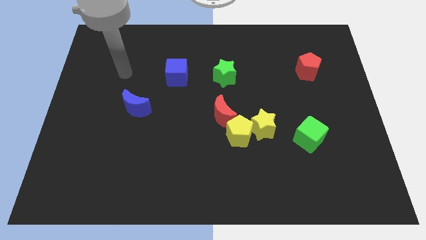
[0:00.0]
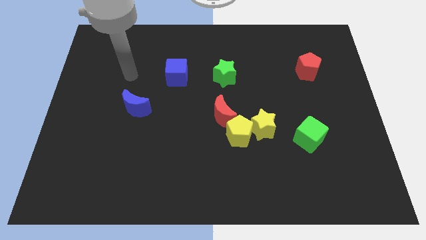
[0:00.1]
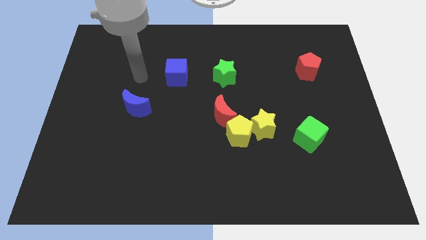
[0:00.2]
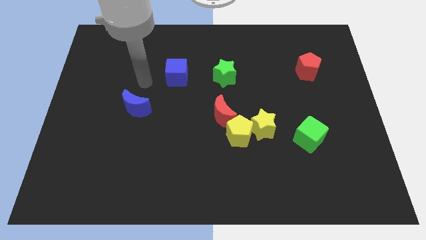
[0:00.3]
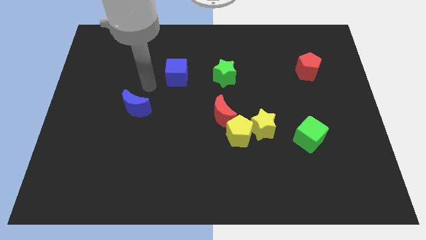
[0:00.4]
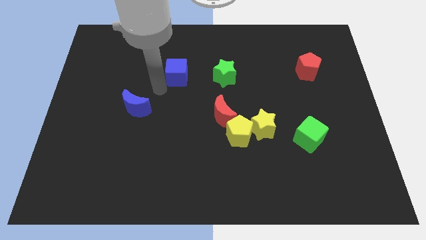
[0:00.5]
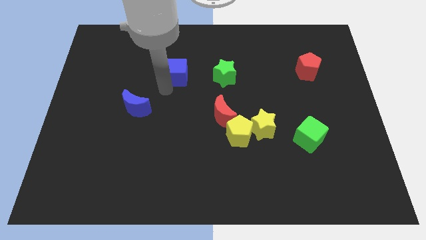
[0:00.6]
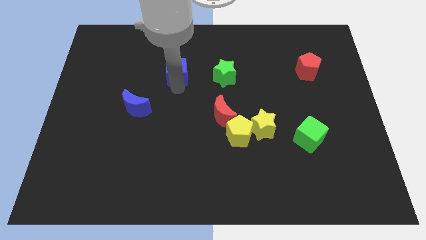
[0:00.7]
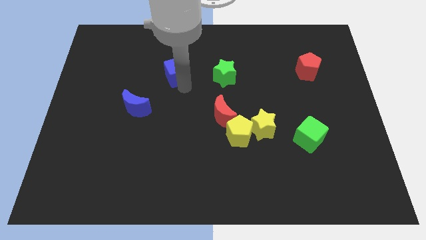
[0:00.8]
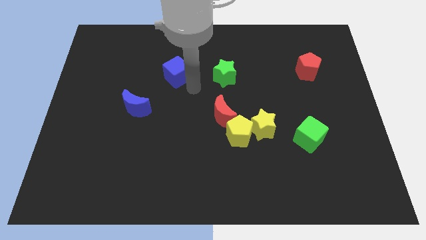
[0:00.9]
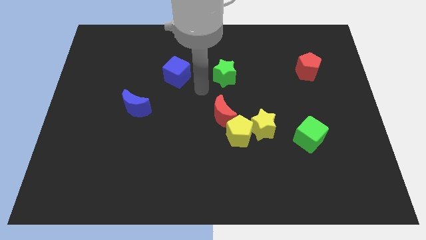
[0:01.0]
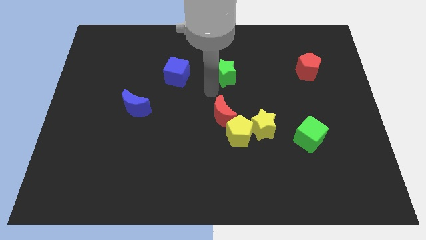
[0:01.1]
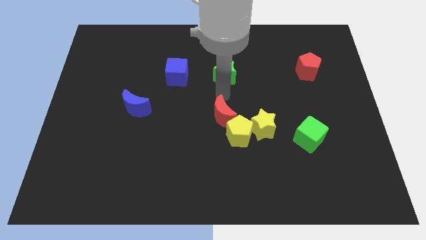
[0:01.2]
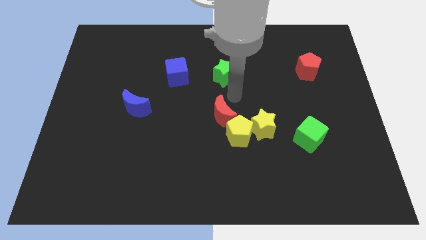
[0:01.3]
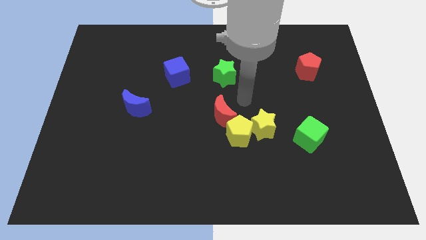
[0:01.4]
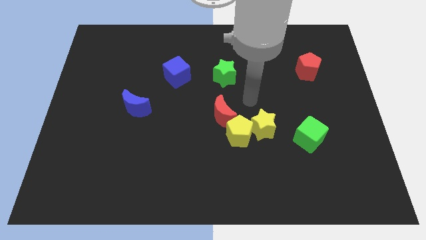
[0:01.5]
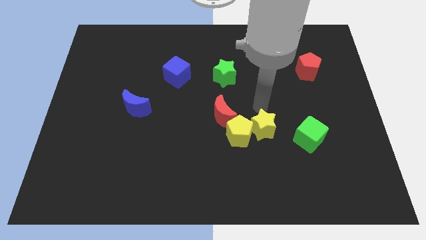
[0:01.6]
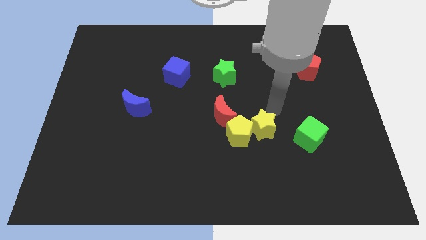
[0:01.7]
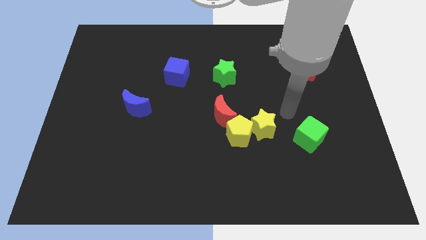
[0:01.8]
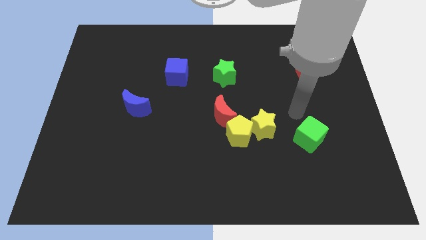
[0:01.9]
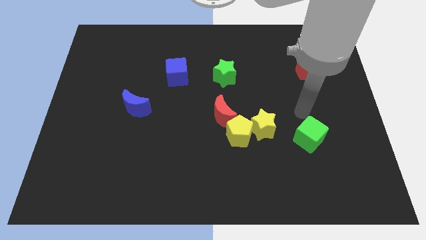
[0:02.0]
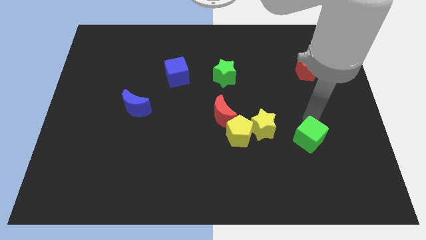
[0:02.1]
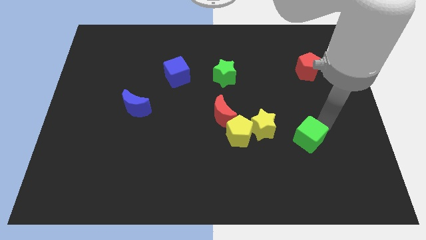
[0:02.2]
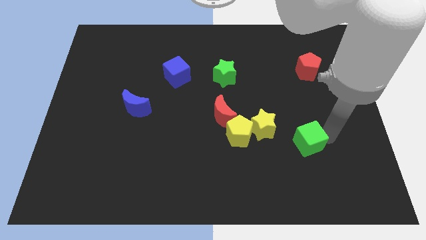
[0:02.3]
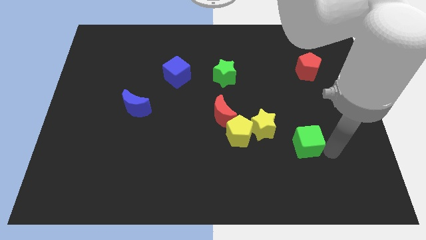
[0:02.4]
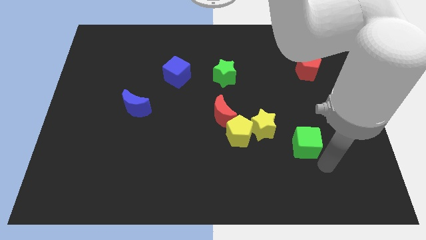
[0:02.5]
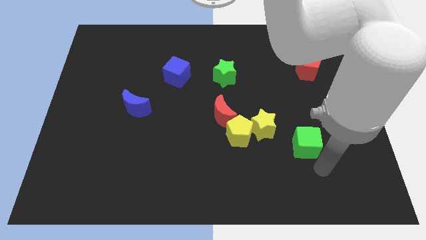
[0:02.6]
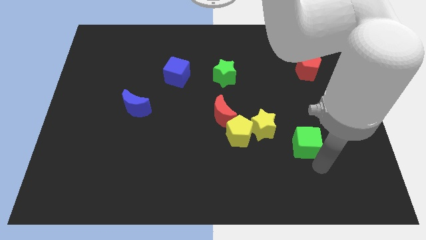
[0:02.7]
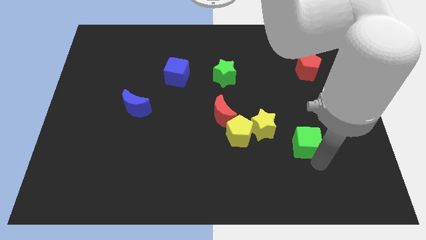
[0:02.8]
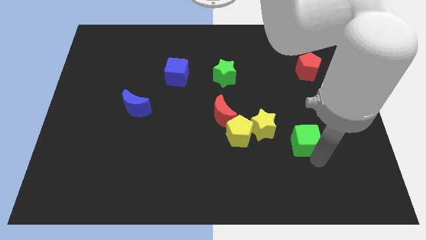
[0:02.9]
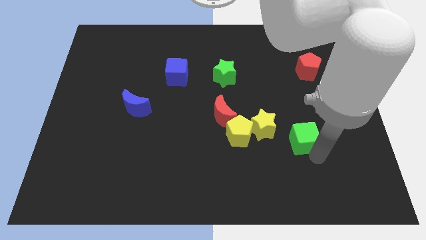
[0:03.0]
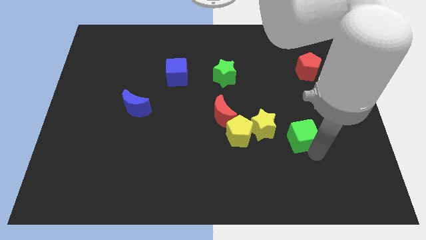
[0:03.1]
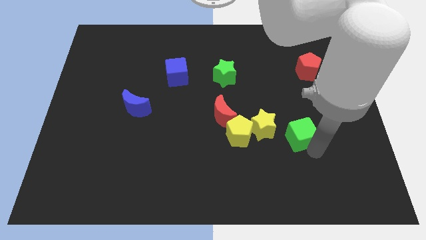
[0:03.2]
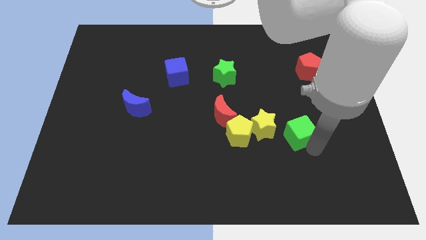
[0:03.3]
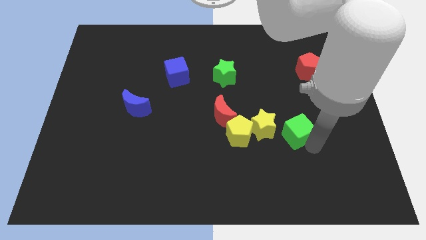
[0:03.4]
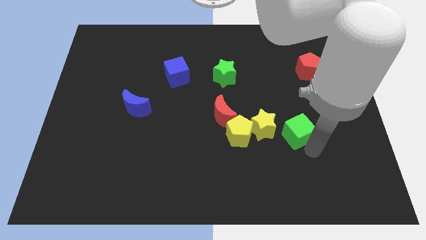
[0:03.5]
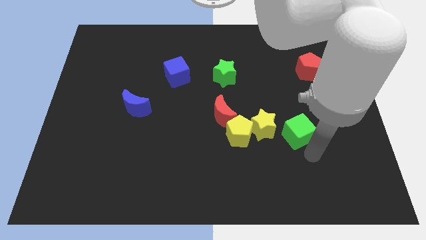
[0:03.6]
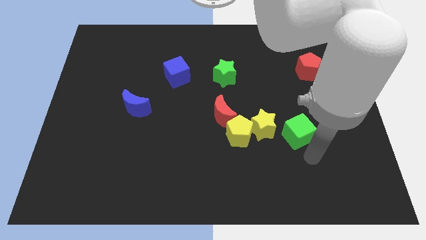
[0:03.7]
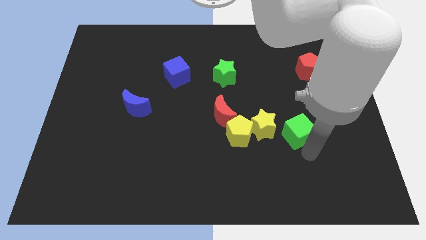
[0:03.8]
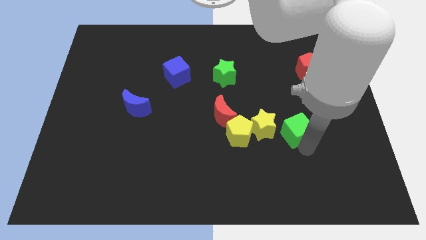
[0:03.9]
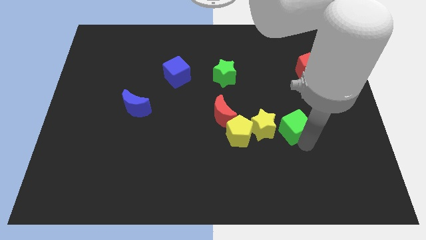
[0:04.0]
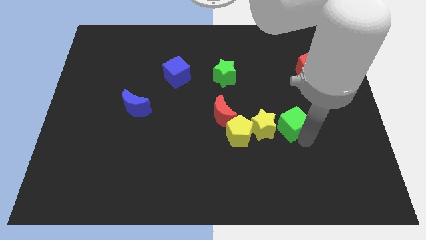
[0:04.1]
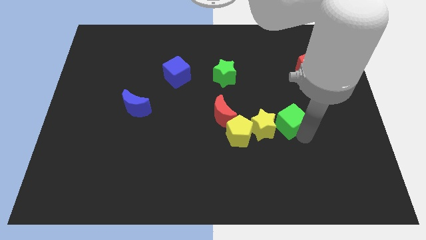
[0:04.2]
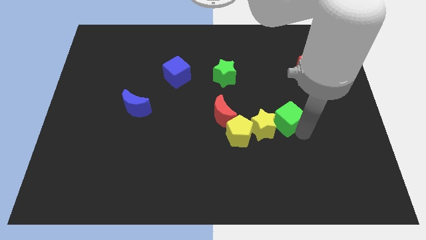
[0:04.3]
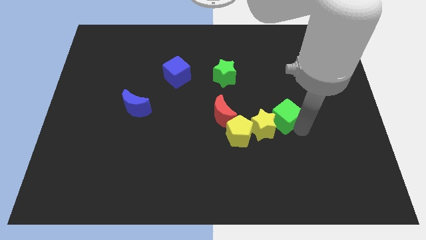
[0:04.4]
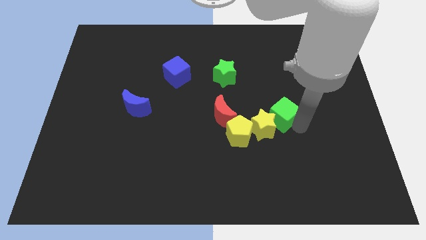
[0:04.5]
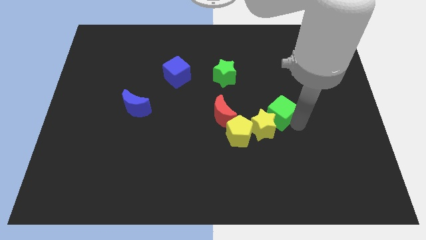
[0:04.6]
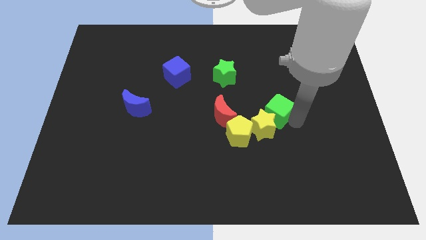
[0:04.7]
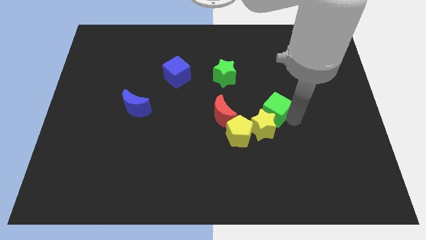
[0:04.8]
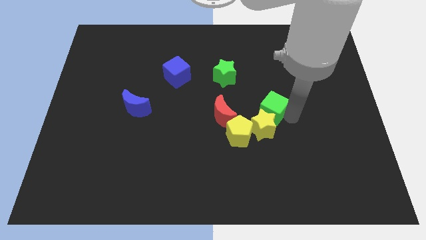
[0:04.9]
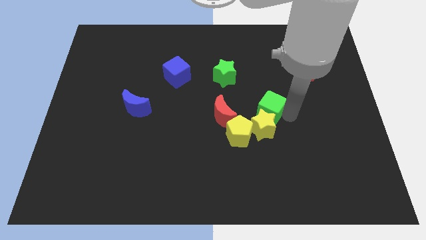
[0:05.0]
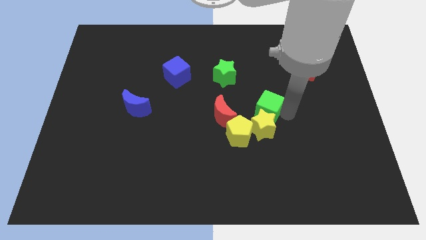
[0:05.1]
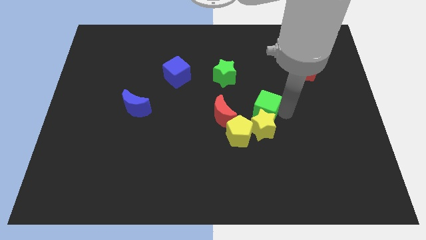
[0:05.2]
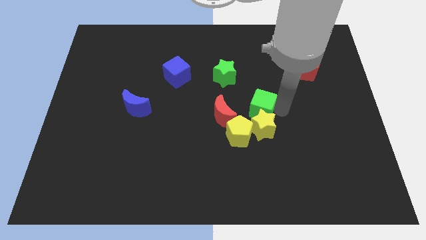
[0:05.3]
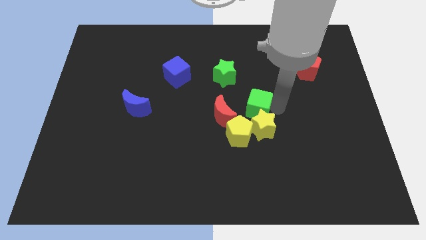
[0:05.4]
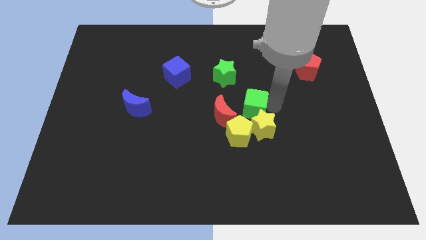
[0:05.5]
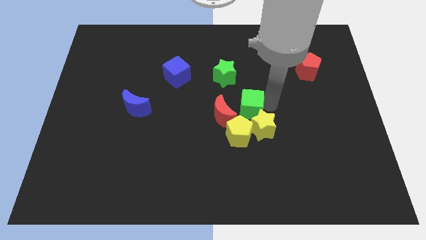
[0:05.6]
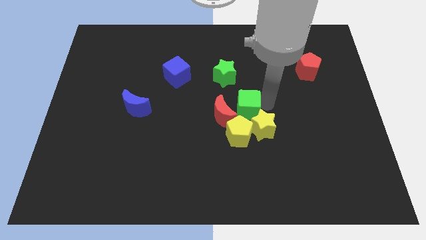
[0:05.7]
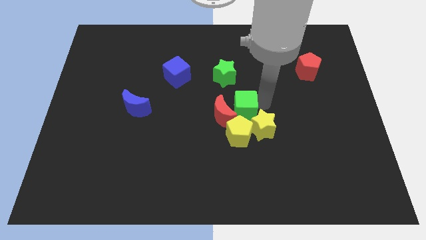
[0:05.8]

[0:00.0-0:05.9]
push the green cube close to the red moon
